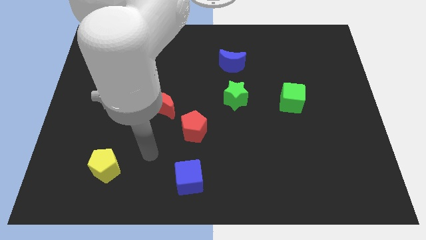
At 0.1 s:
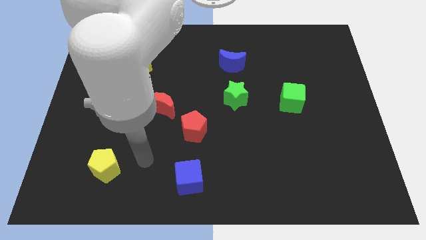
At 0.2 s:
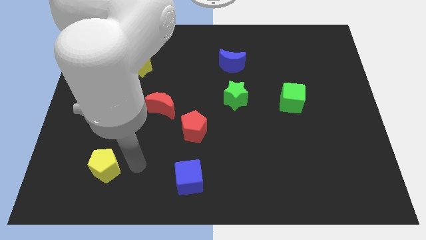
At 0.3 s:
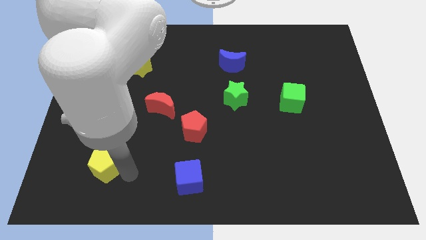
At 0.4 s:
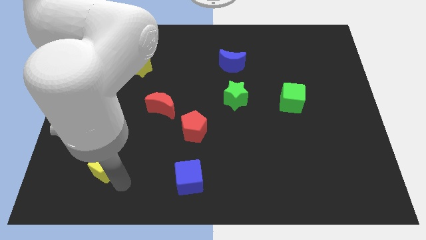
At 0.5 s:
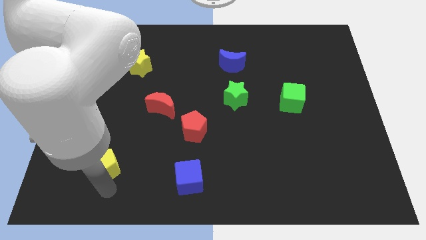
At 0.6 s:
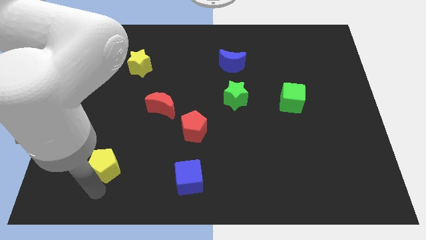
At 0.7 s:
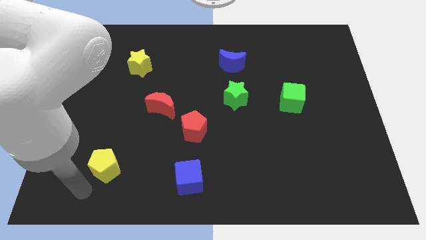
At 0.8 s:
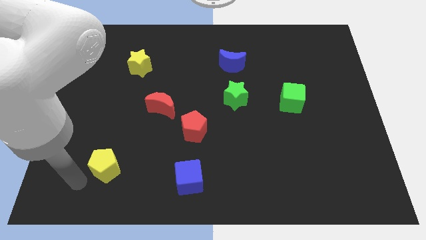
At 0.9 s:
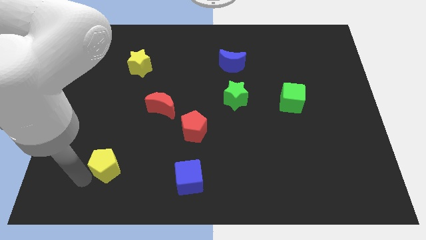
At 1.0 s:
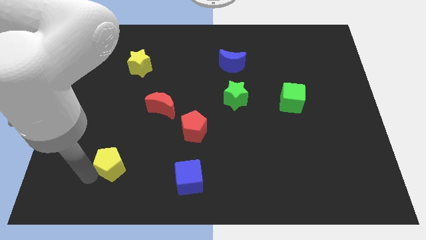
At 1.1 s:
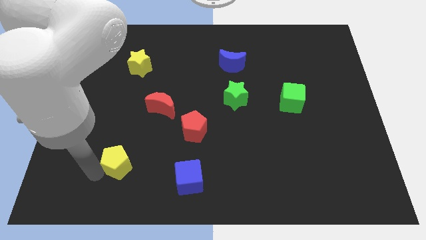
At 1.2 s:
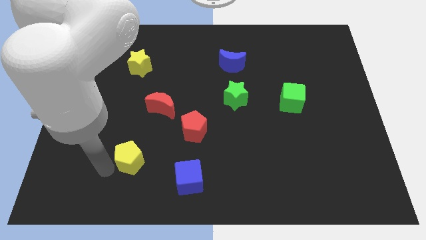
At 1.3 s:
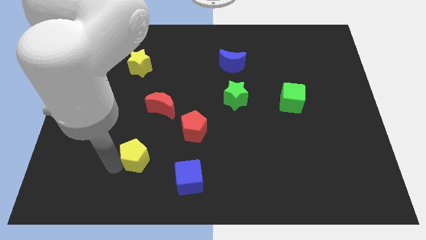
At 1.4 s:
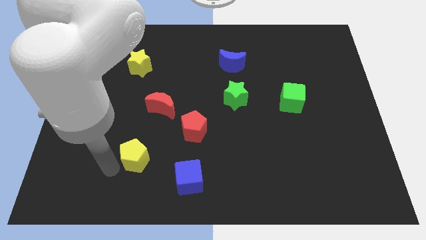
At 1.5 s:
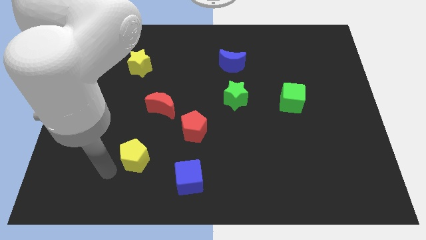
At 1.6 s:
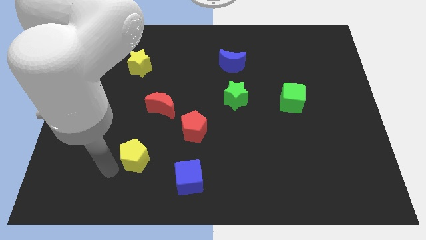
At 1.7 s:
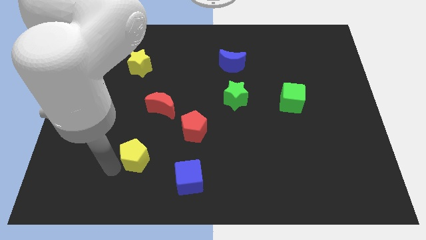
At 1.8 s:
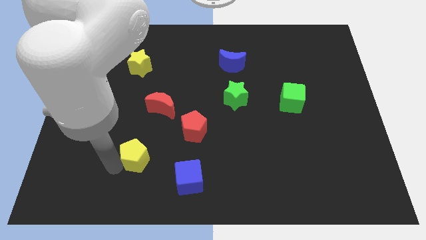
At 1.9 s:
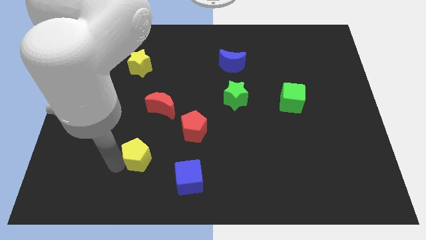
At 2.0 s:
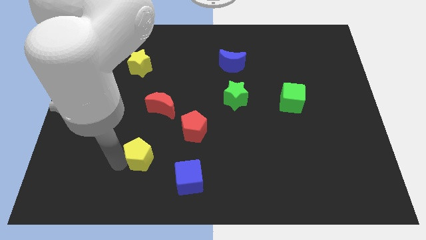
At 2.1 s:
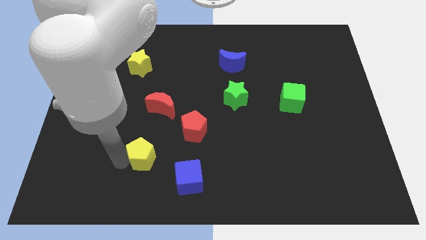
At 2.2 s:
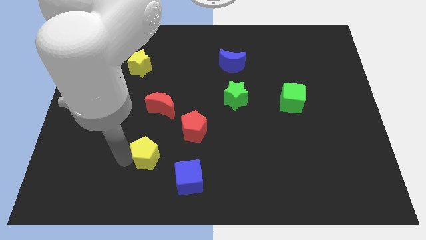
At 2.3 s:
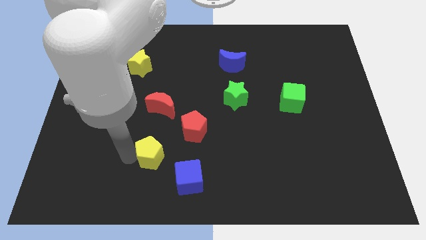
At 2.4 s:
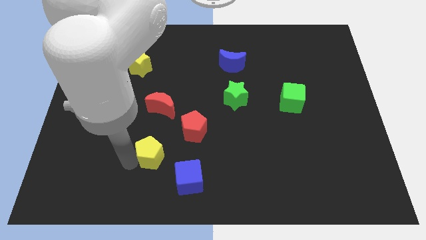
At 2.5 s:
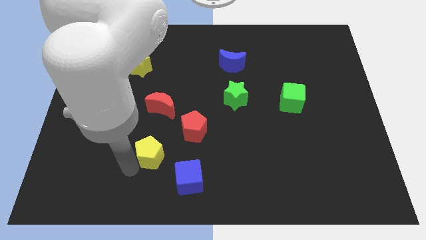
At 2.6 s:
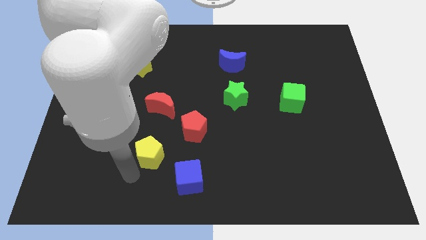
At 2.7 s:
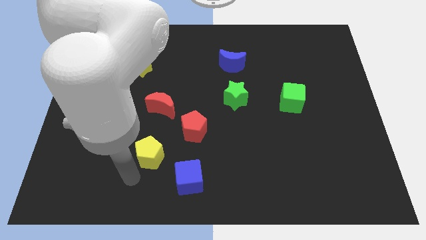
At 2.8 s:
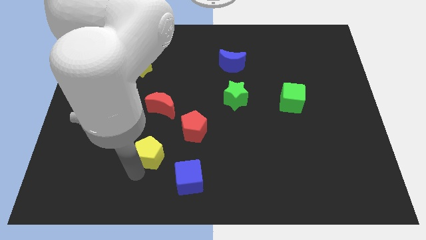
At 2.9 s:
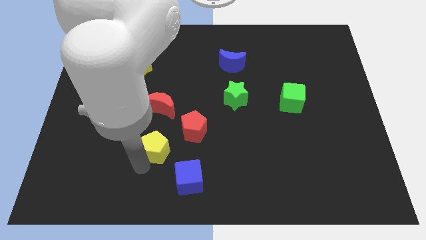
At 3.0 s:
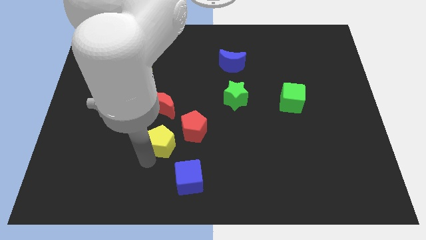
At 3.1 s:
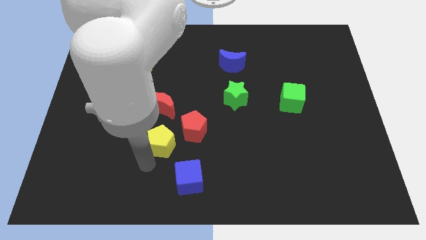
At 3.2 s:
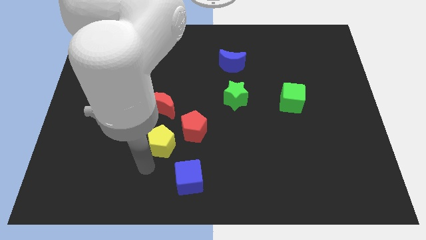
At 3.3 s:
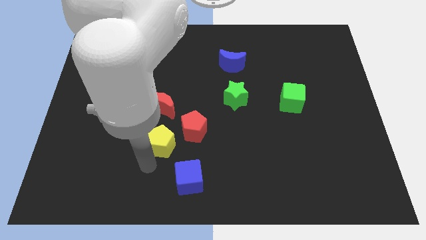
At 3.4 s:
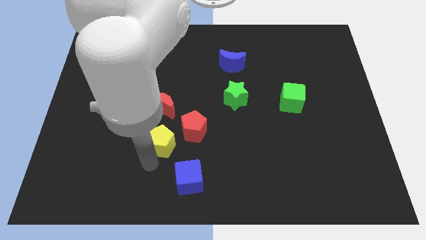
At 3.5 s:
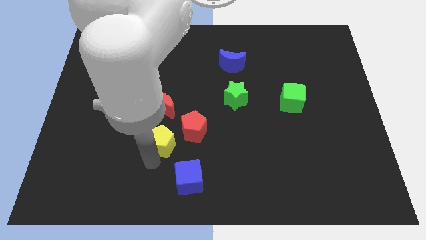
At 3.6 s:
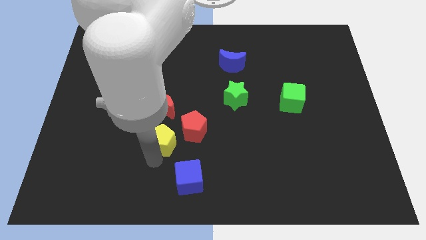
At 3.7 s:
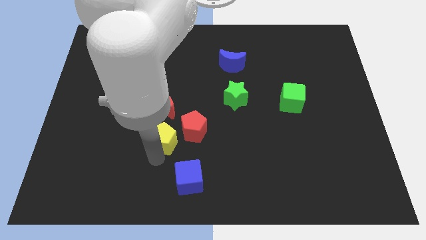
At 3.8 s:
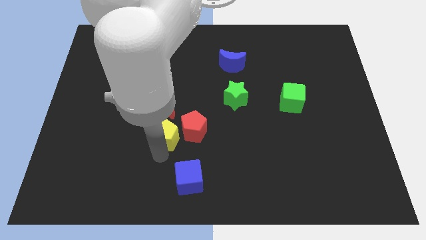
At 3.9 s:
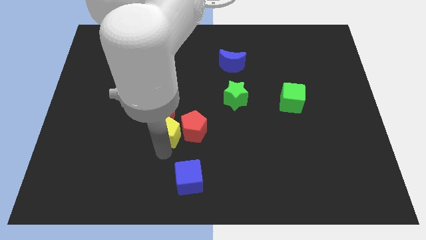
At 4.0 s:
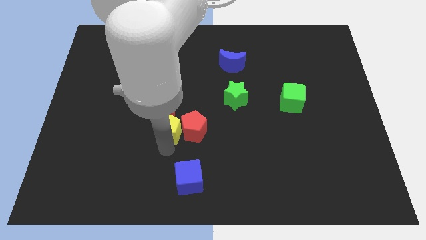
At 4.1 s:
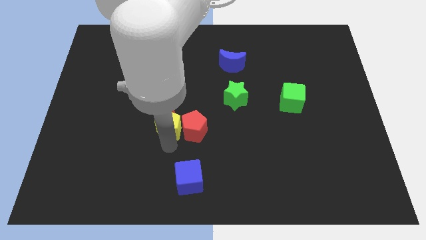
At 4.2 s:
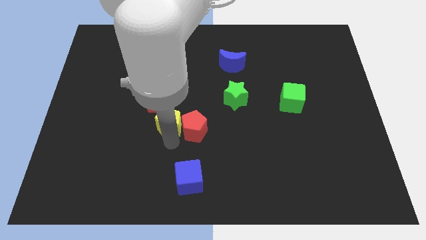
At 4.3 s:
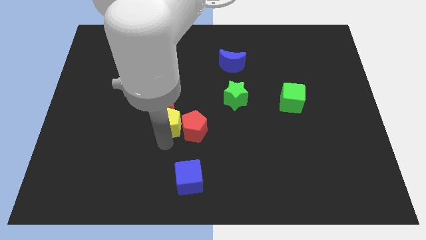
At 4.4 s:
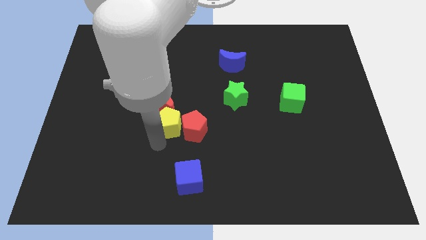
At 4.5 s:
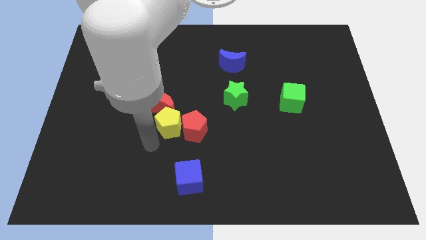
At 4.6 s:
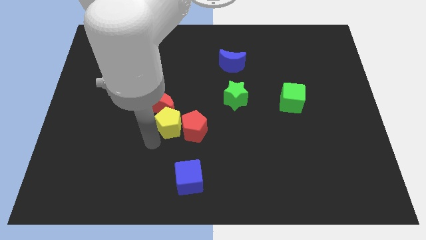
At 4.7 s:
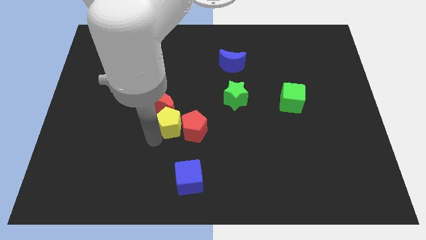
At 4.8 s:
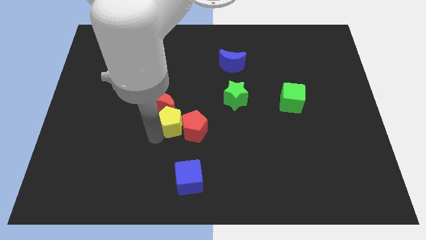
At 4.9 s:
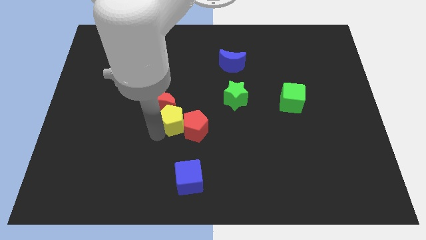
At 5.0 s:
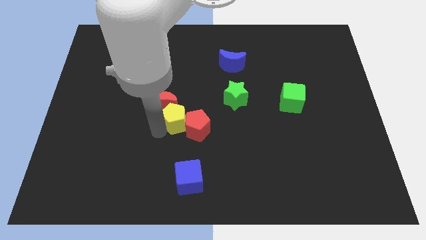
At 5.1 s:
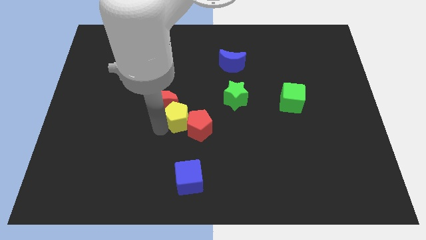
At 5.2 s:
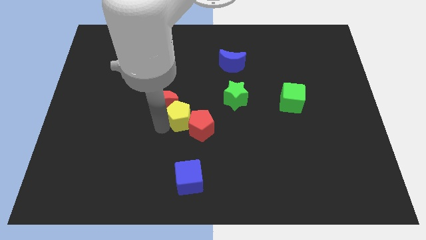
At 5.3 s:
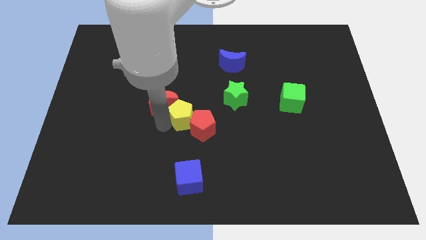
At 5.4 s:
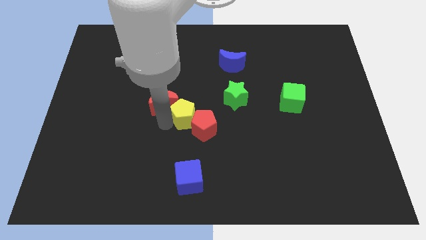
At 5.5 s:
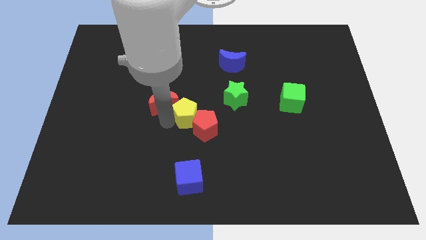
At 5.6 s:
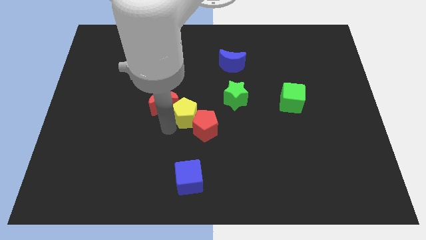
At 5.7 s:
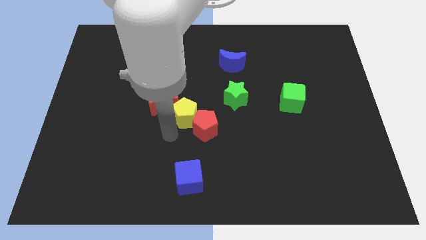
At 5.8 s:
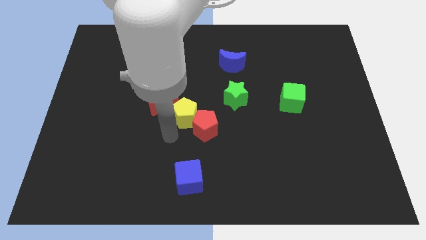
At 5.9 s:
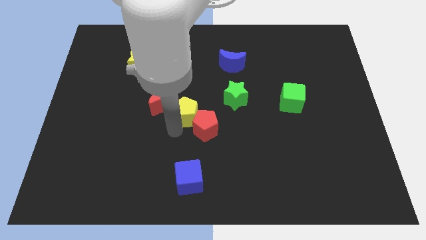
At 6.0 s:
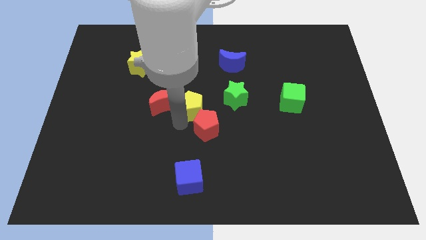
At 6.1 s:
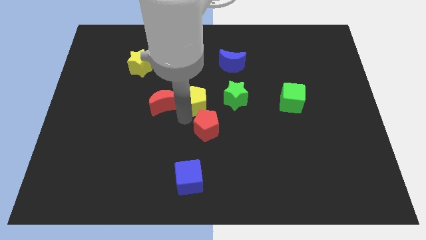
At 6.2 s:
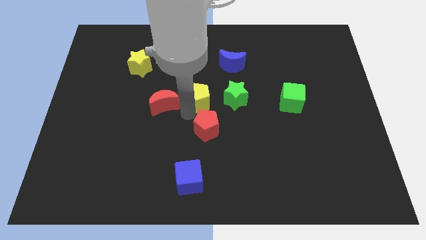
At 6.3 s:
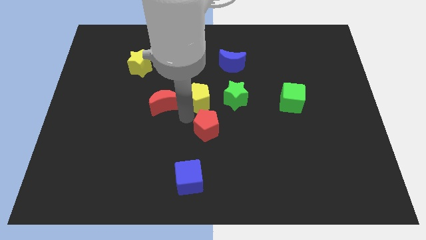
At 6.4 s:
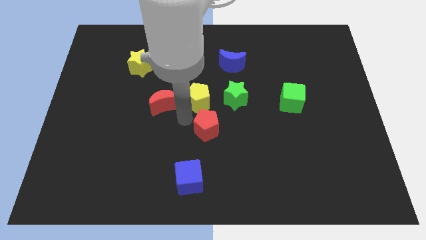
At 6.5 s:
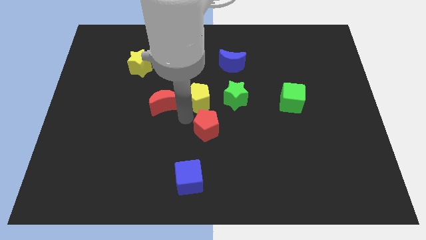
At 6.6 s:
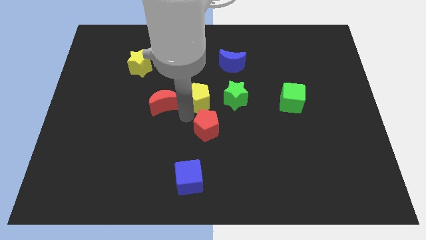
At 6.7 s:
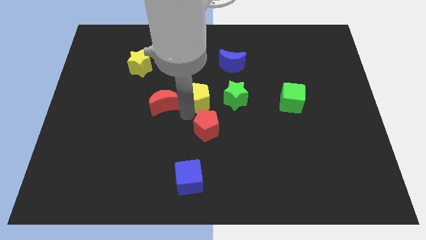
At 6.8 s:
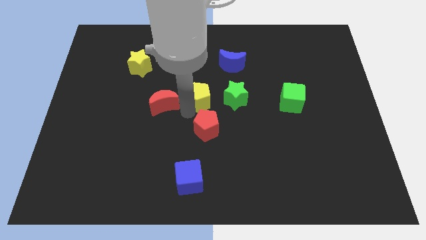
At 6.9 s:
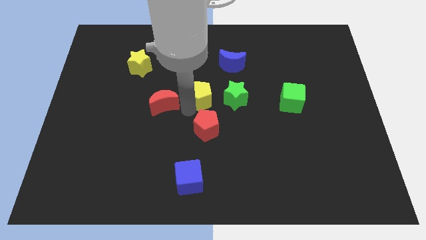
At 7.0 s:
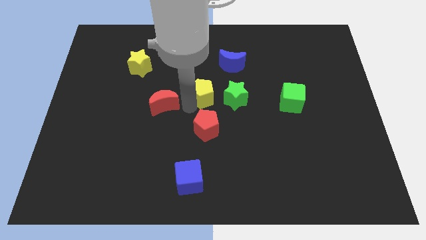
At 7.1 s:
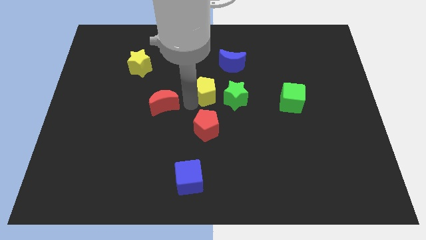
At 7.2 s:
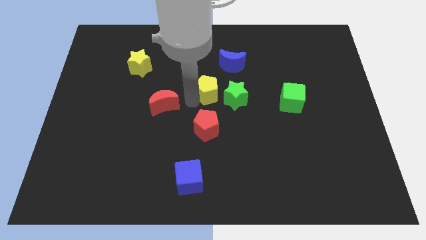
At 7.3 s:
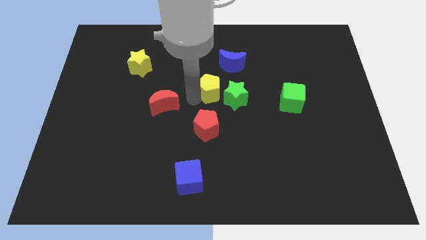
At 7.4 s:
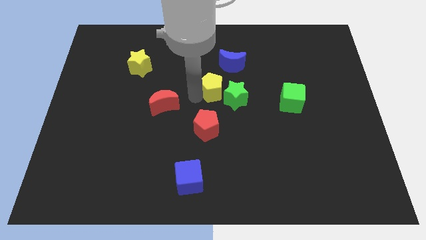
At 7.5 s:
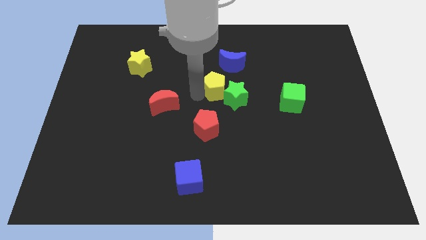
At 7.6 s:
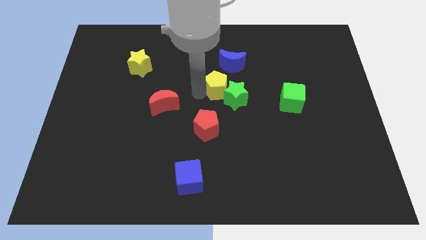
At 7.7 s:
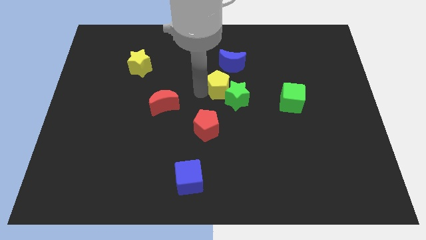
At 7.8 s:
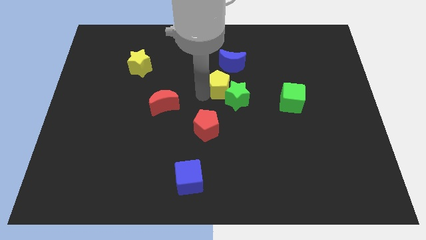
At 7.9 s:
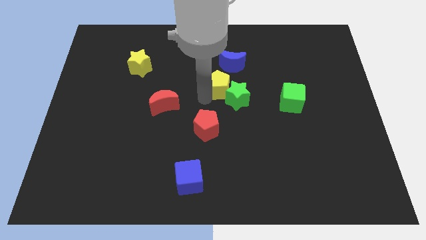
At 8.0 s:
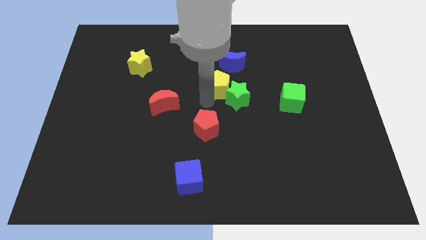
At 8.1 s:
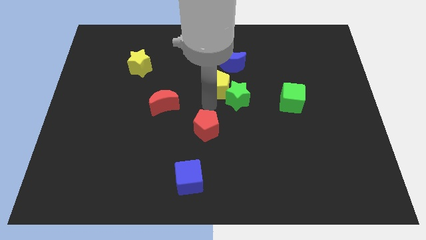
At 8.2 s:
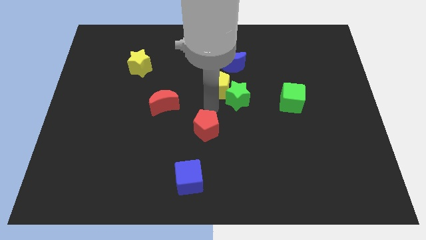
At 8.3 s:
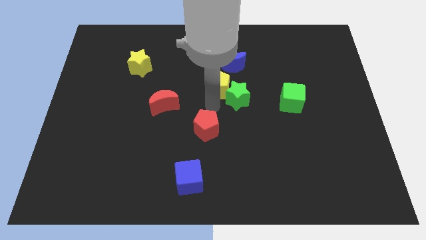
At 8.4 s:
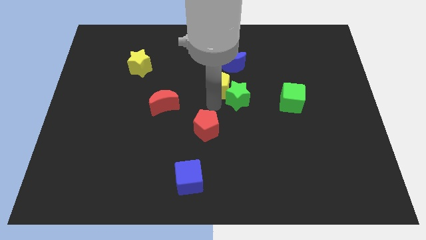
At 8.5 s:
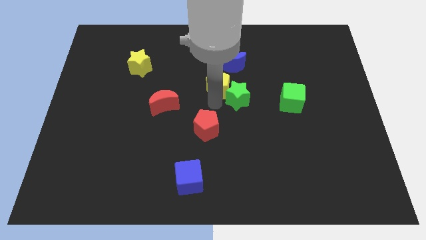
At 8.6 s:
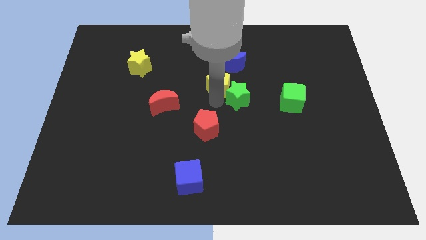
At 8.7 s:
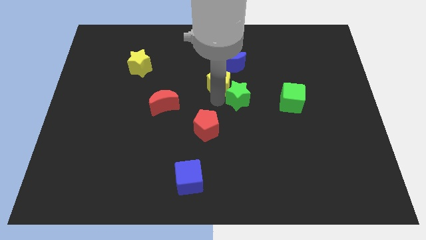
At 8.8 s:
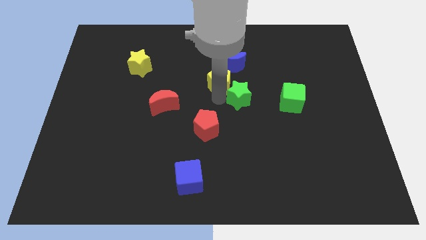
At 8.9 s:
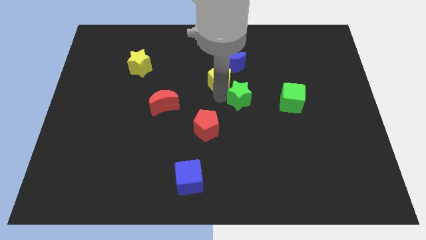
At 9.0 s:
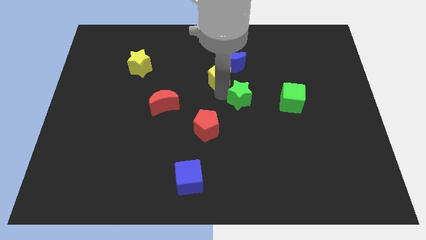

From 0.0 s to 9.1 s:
put the yellow pentagon towards the blue moon
